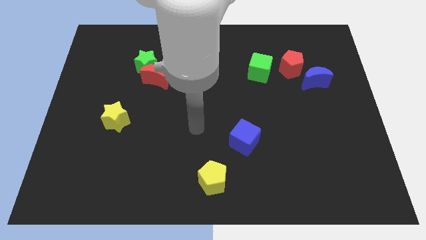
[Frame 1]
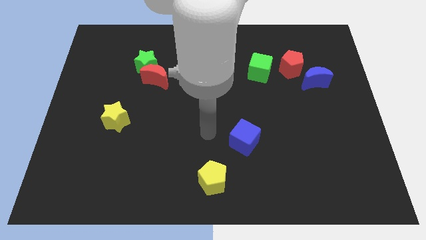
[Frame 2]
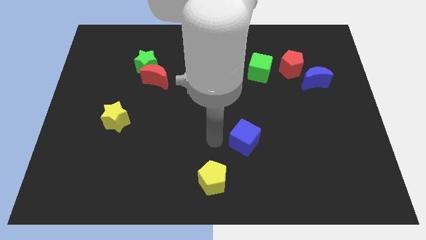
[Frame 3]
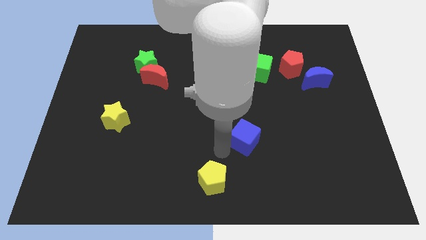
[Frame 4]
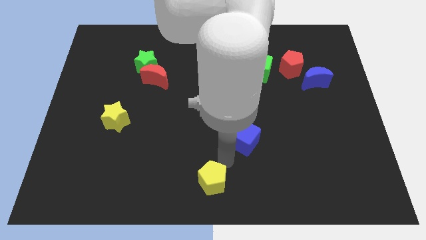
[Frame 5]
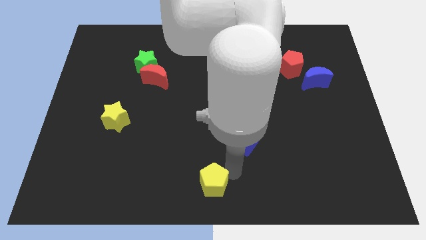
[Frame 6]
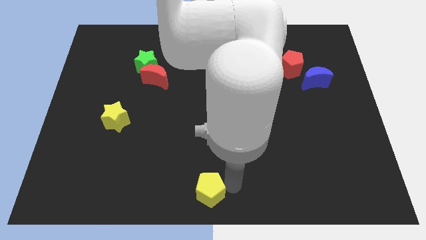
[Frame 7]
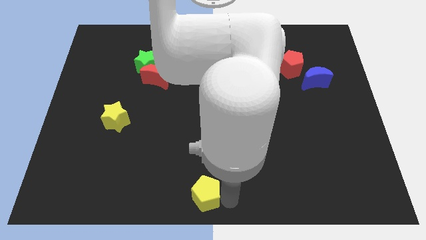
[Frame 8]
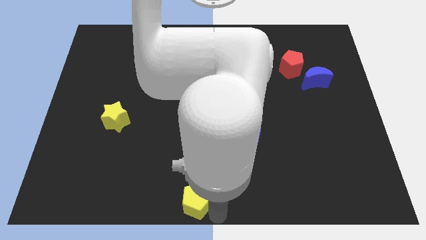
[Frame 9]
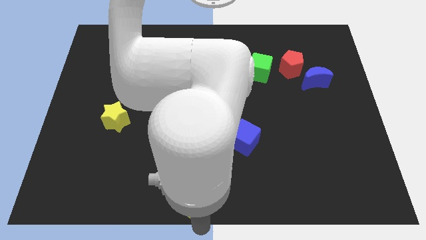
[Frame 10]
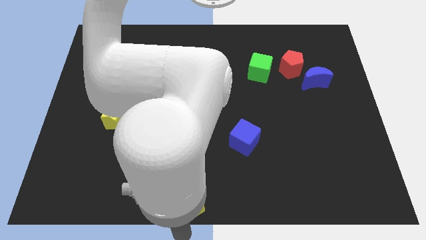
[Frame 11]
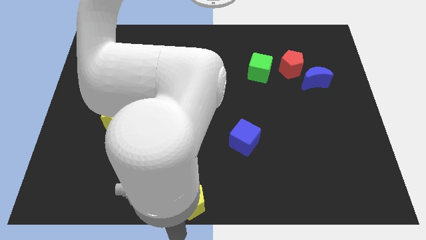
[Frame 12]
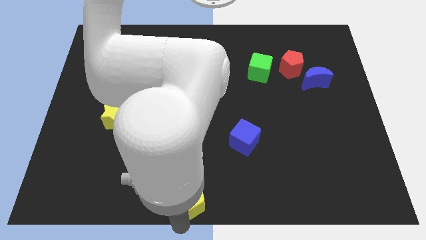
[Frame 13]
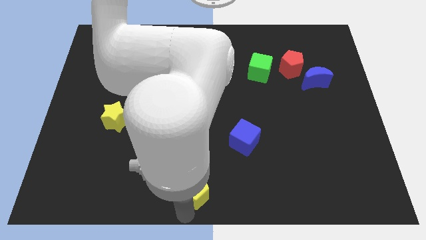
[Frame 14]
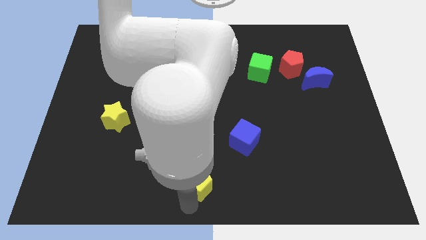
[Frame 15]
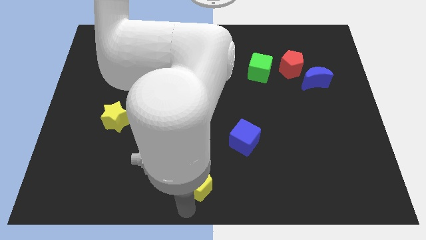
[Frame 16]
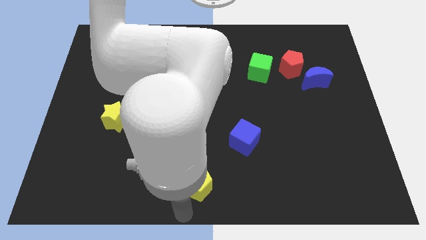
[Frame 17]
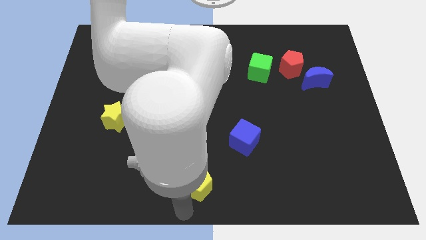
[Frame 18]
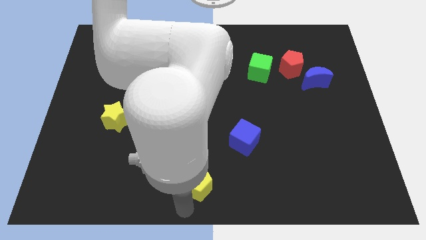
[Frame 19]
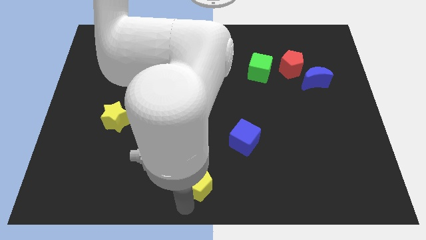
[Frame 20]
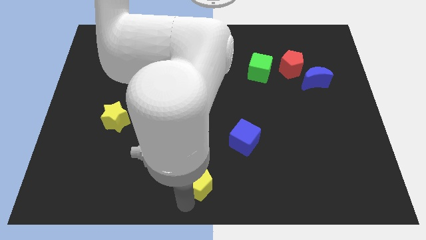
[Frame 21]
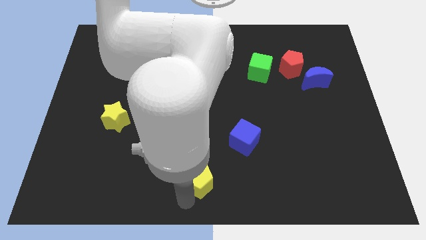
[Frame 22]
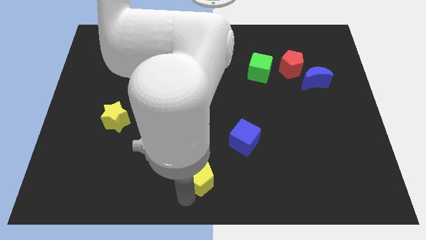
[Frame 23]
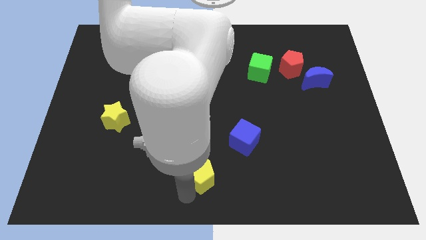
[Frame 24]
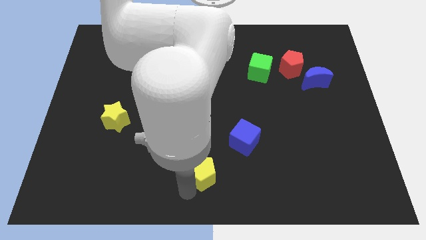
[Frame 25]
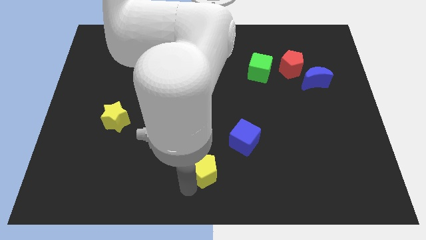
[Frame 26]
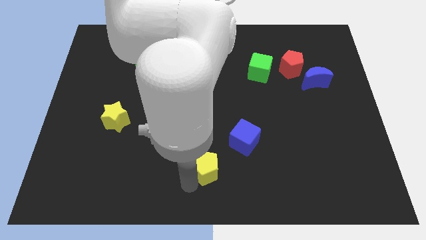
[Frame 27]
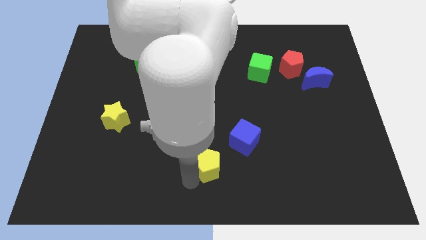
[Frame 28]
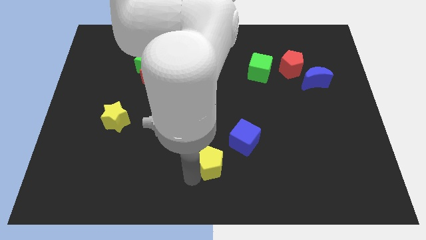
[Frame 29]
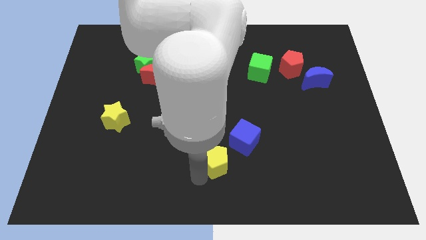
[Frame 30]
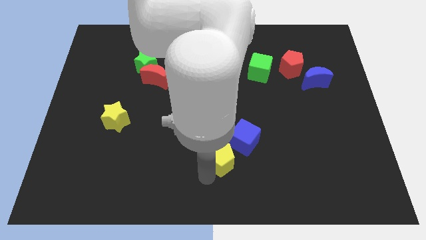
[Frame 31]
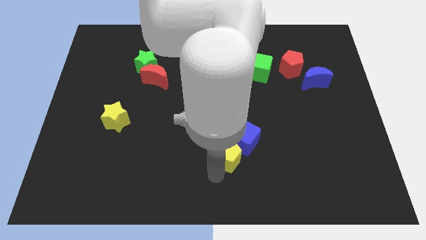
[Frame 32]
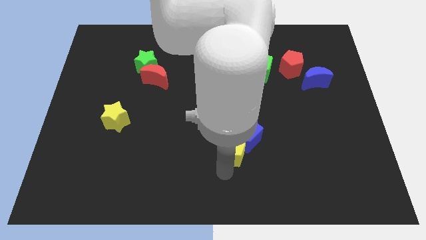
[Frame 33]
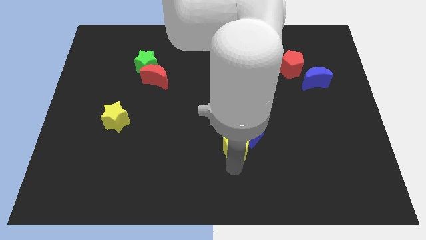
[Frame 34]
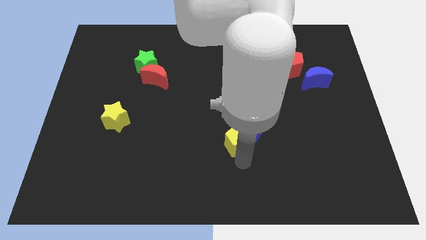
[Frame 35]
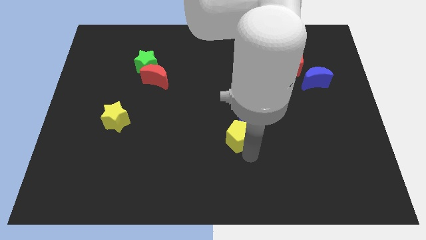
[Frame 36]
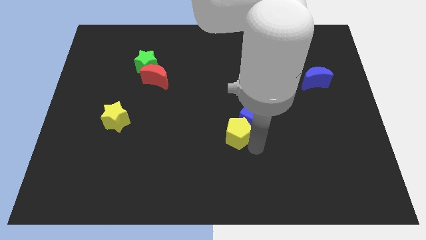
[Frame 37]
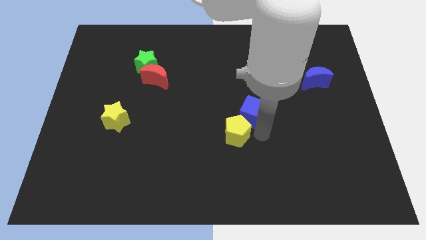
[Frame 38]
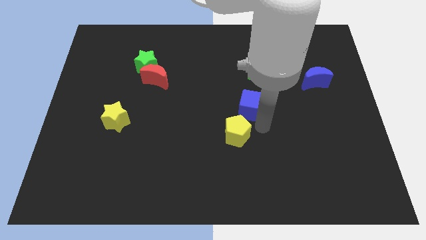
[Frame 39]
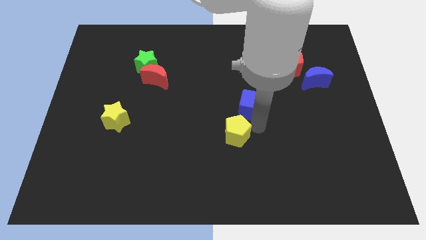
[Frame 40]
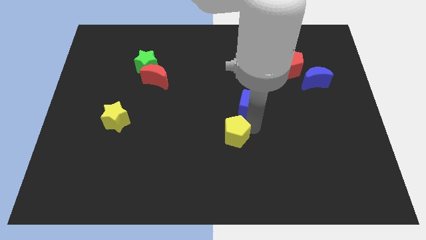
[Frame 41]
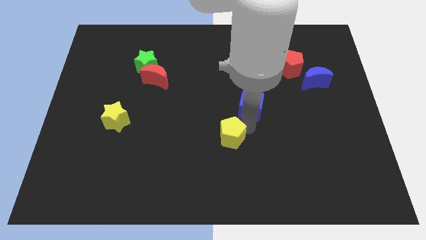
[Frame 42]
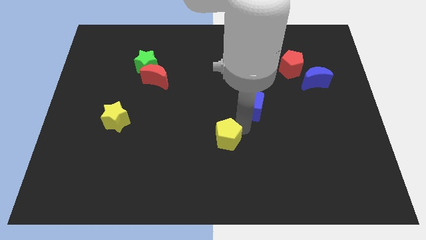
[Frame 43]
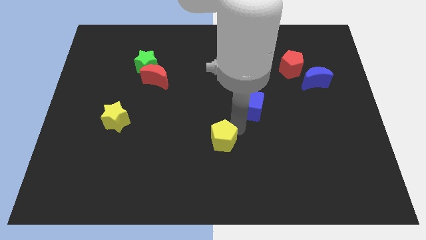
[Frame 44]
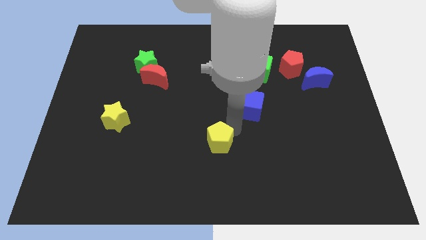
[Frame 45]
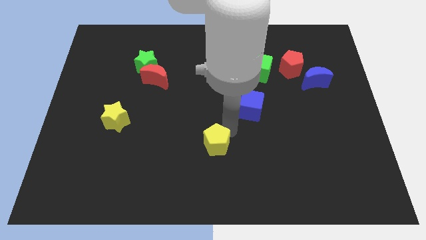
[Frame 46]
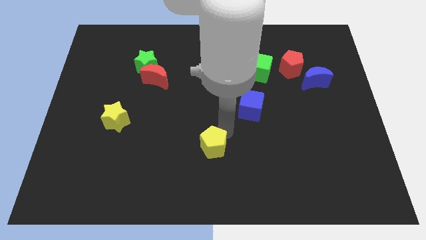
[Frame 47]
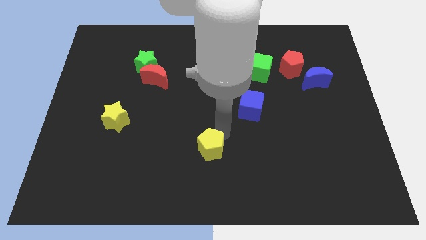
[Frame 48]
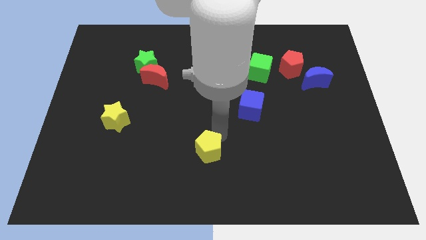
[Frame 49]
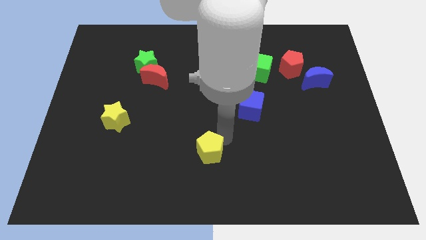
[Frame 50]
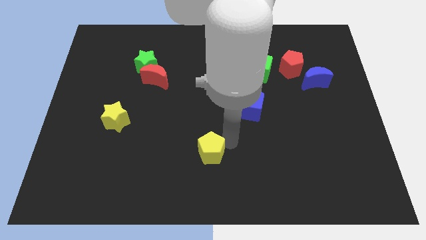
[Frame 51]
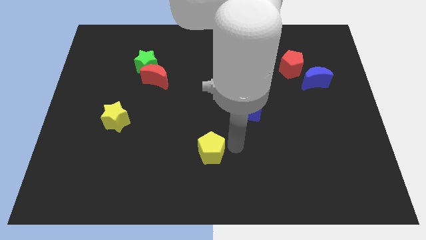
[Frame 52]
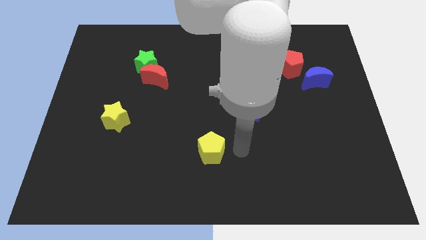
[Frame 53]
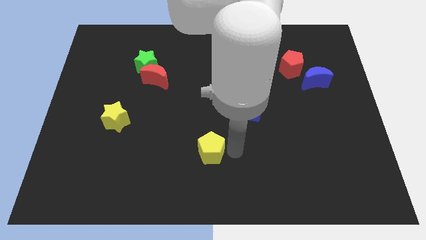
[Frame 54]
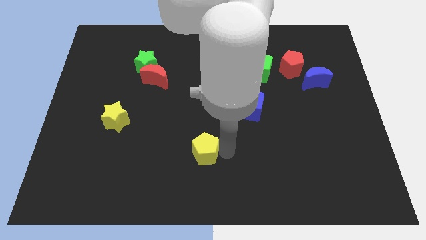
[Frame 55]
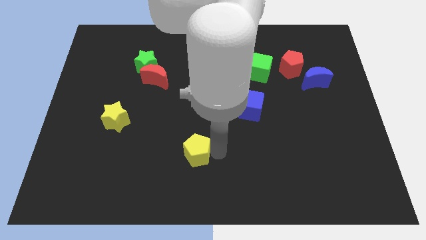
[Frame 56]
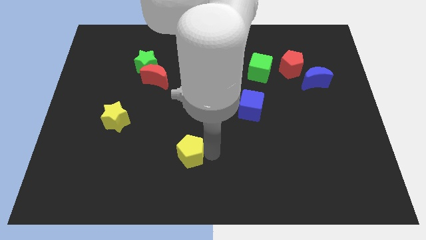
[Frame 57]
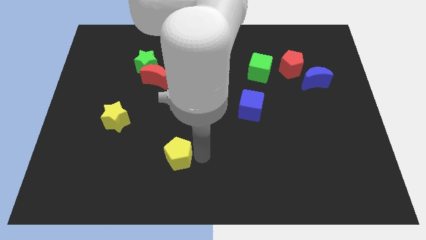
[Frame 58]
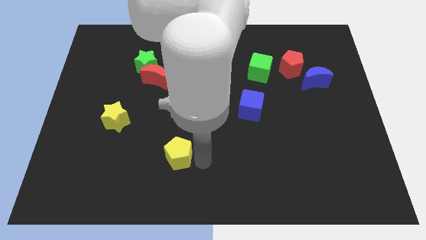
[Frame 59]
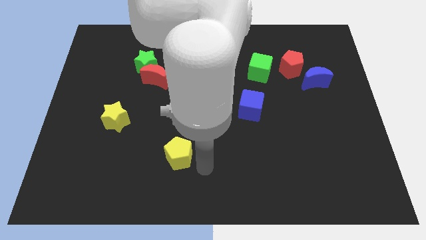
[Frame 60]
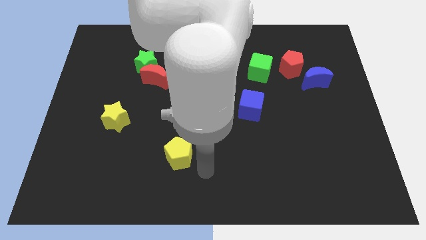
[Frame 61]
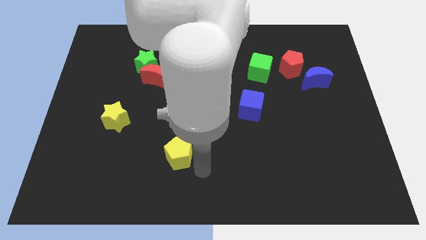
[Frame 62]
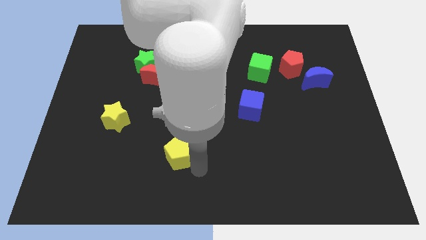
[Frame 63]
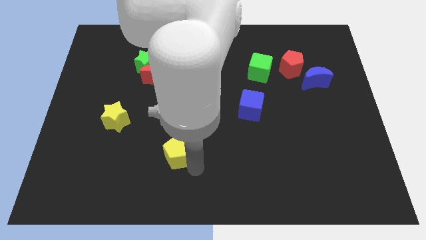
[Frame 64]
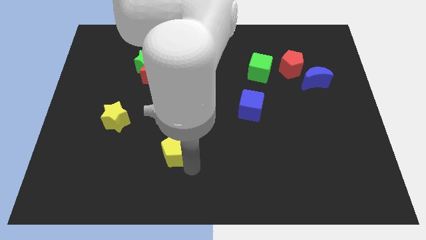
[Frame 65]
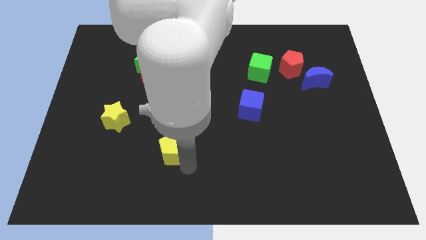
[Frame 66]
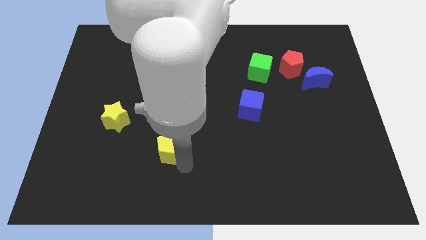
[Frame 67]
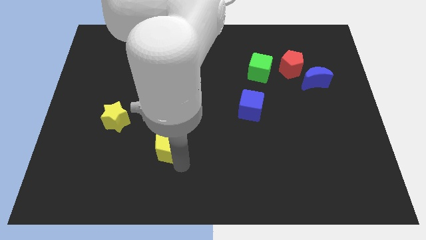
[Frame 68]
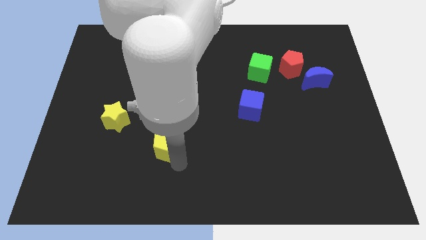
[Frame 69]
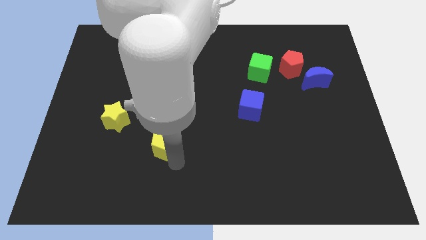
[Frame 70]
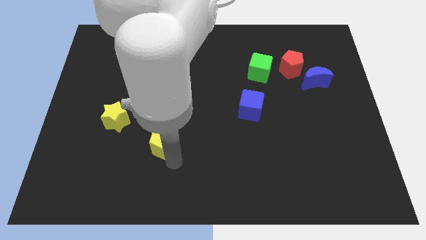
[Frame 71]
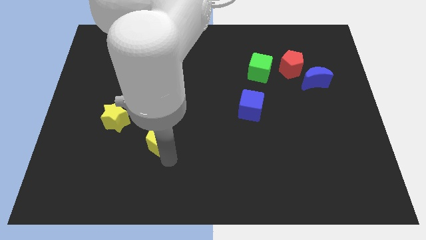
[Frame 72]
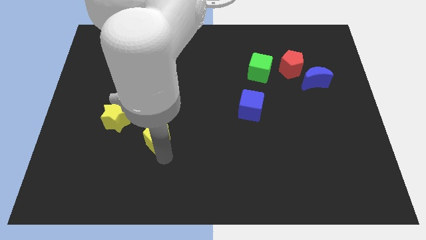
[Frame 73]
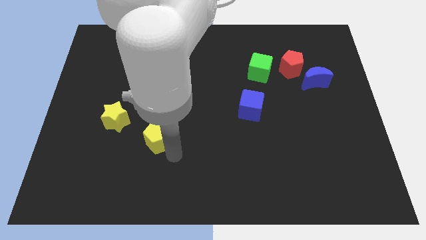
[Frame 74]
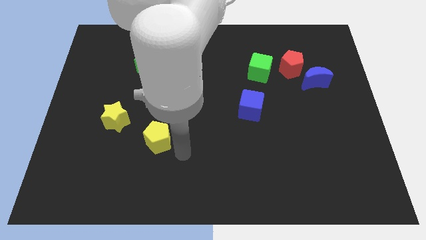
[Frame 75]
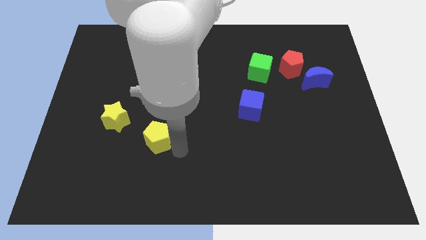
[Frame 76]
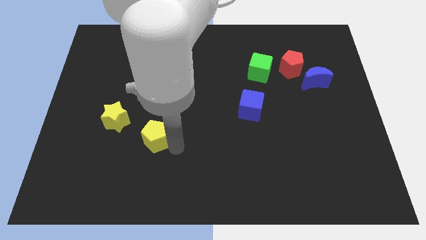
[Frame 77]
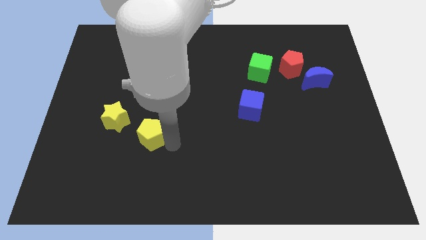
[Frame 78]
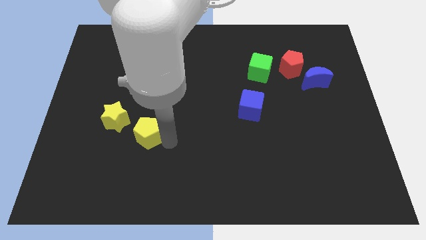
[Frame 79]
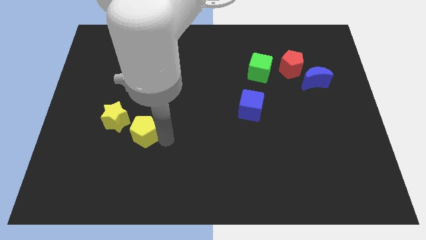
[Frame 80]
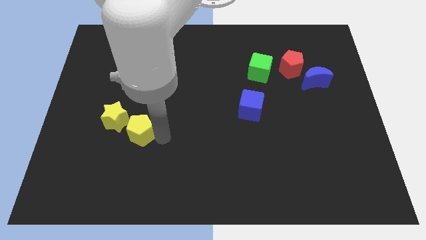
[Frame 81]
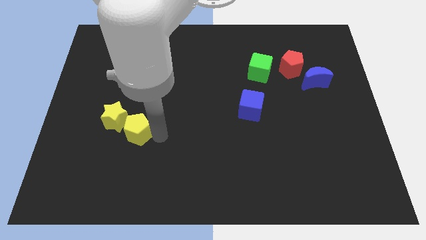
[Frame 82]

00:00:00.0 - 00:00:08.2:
put the yellow pentagon close to the yellow star
